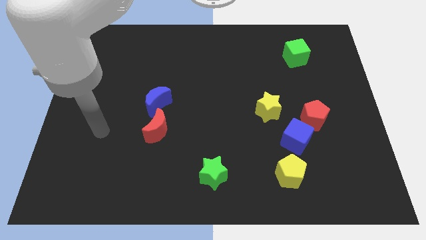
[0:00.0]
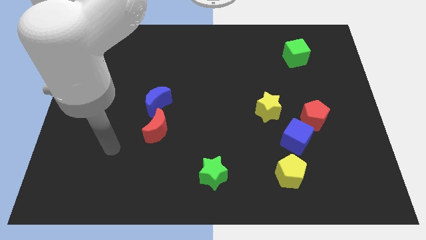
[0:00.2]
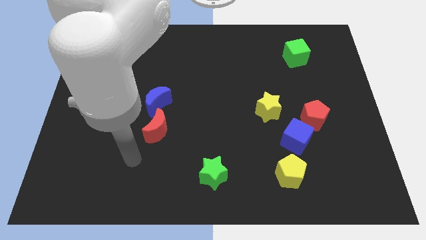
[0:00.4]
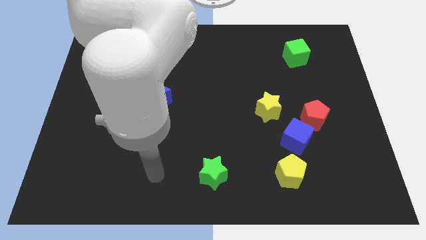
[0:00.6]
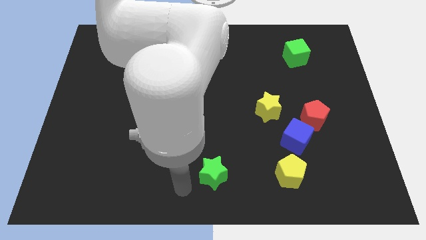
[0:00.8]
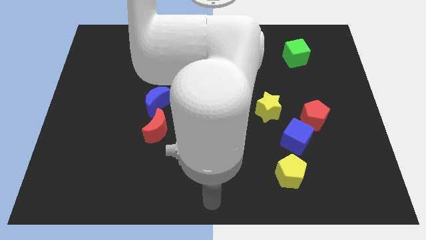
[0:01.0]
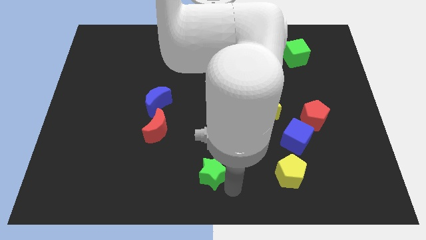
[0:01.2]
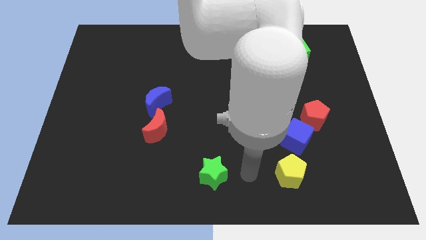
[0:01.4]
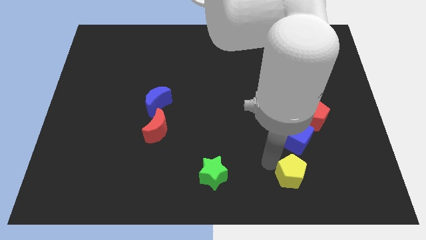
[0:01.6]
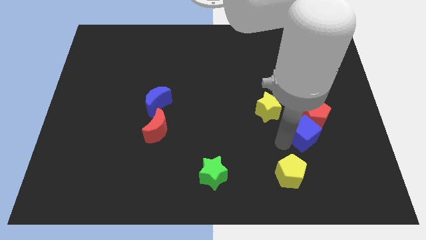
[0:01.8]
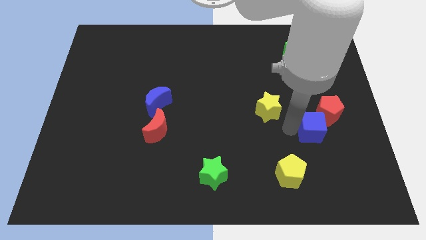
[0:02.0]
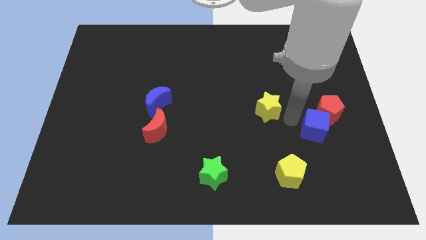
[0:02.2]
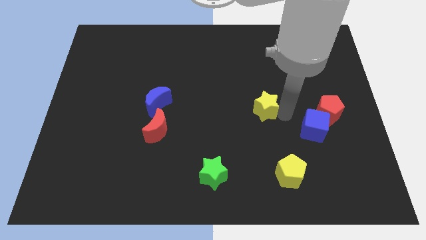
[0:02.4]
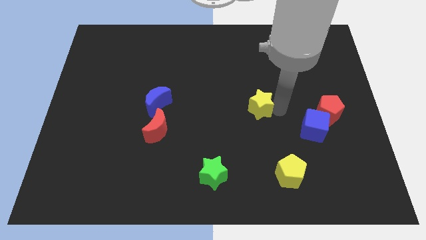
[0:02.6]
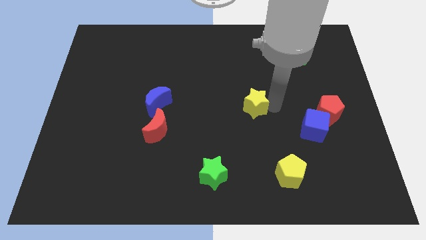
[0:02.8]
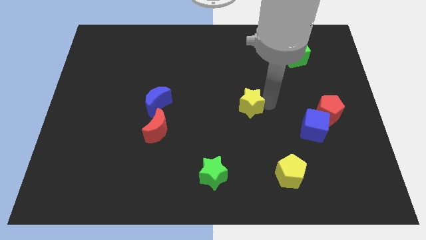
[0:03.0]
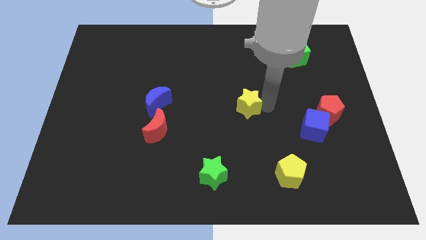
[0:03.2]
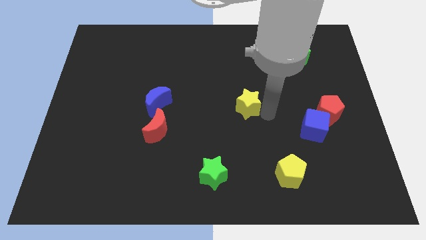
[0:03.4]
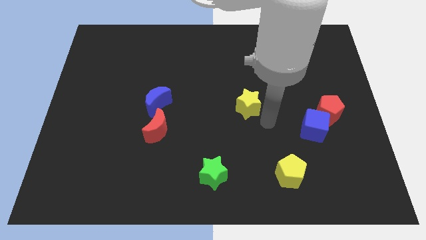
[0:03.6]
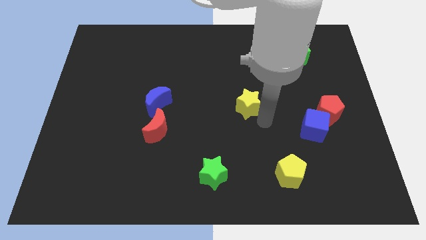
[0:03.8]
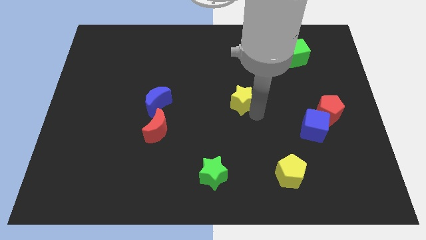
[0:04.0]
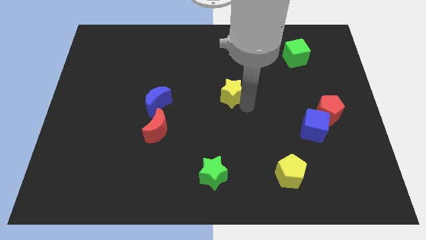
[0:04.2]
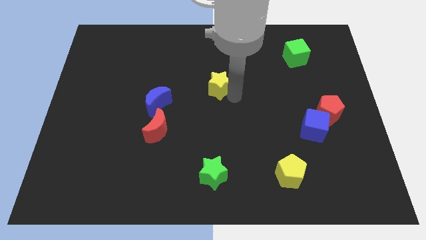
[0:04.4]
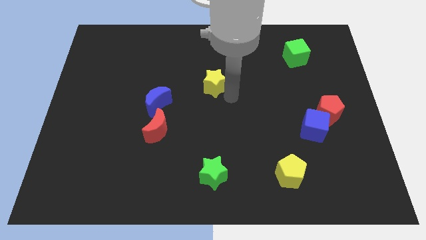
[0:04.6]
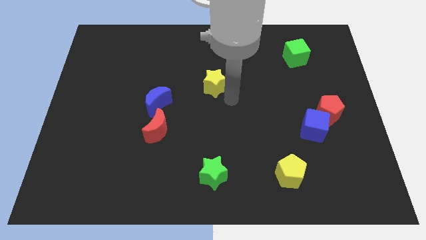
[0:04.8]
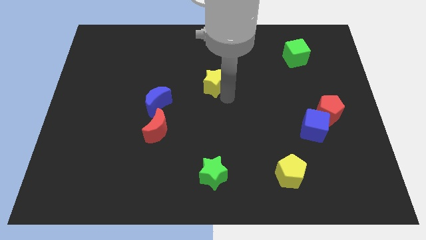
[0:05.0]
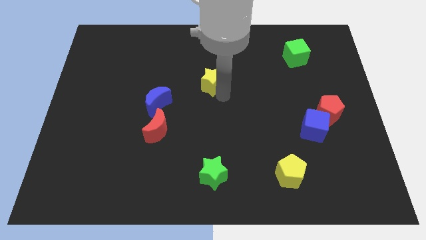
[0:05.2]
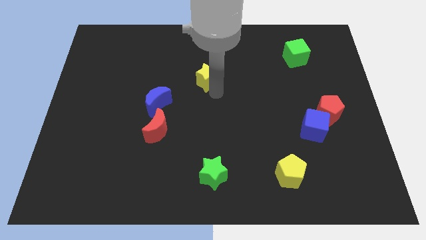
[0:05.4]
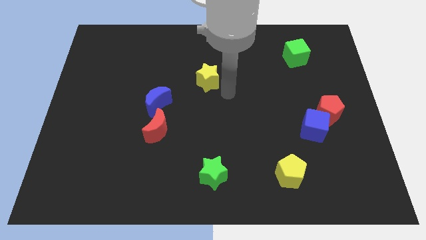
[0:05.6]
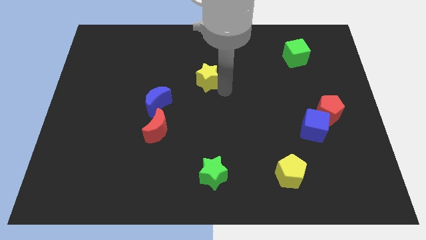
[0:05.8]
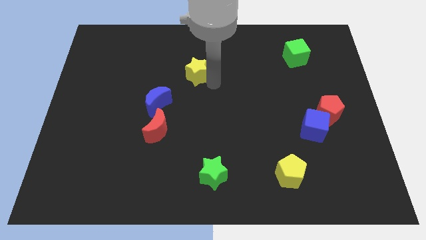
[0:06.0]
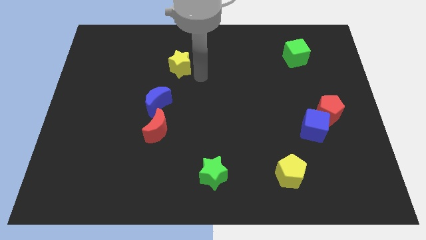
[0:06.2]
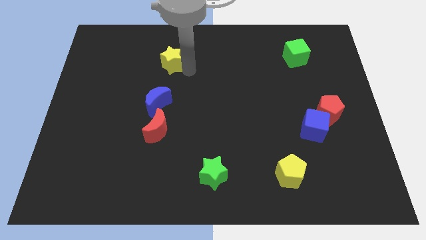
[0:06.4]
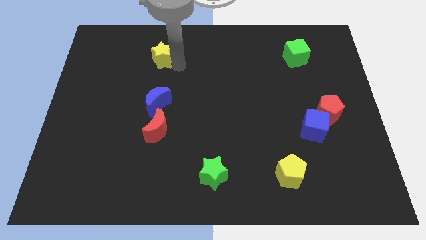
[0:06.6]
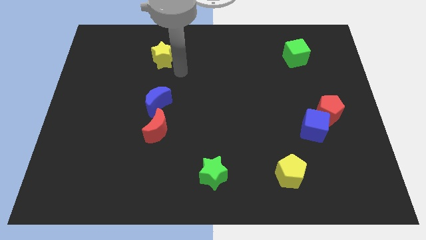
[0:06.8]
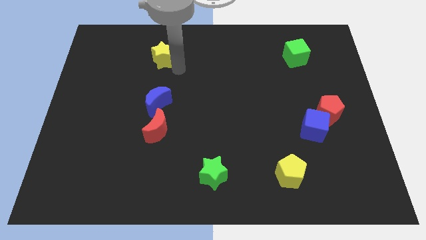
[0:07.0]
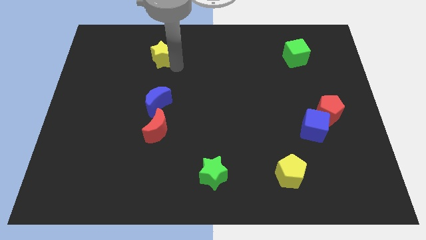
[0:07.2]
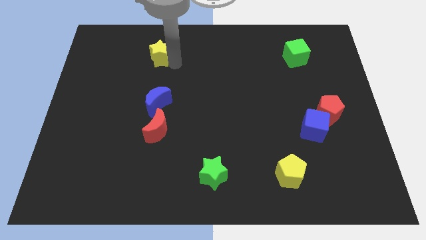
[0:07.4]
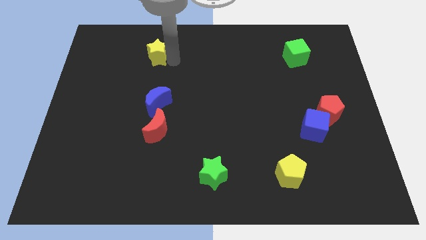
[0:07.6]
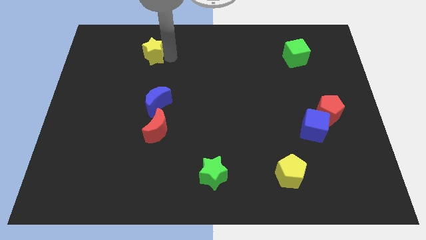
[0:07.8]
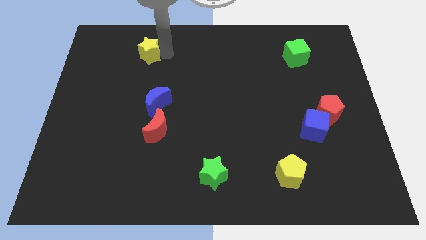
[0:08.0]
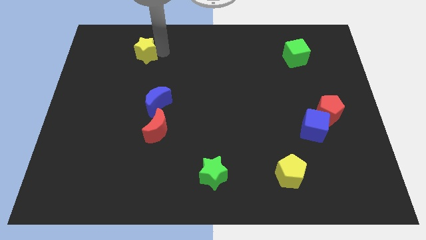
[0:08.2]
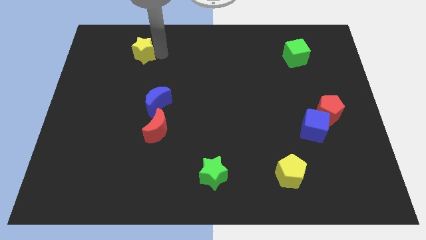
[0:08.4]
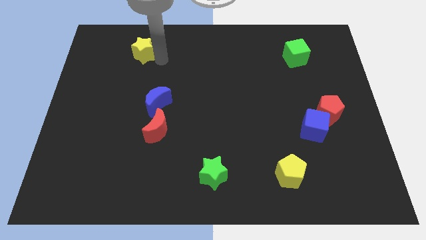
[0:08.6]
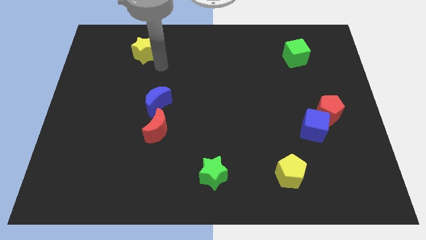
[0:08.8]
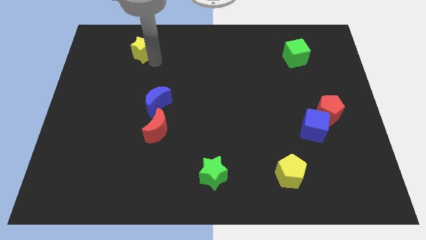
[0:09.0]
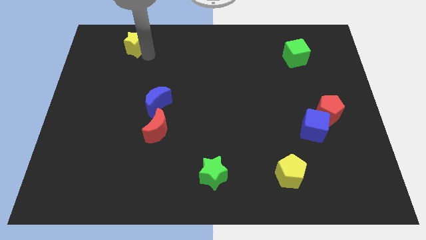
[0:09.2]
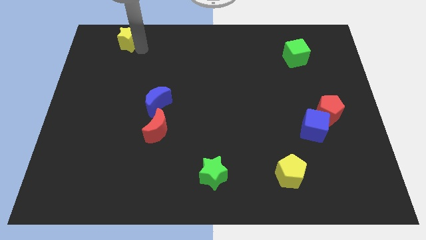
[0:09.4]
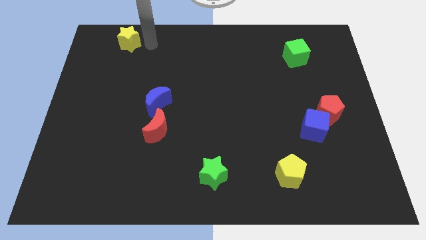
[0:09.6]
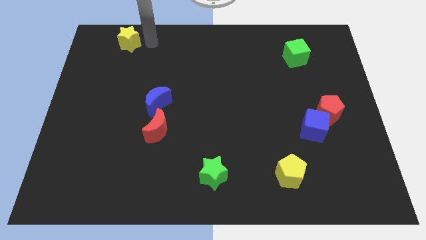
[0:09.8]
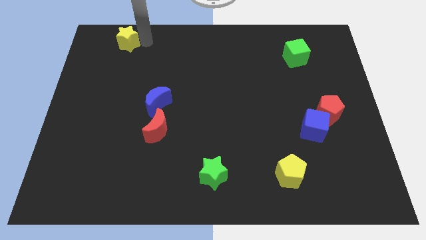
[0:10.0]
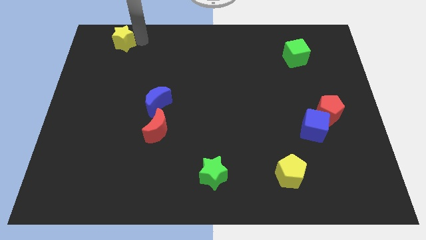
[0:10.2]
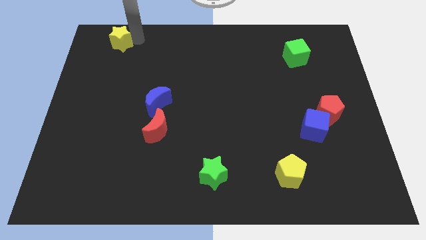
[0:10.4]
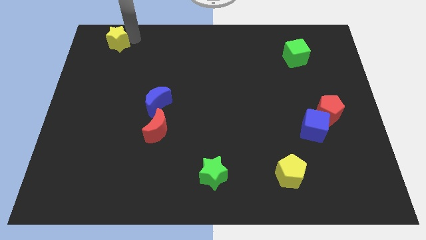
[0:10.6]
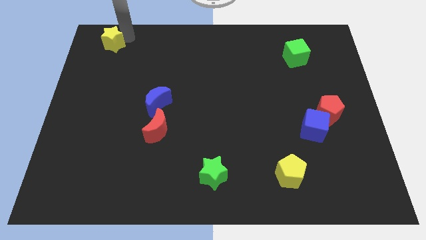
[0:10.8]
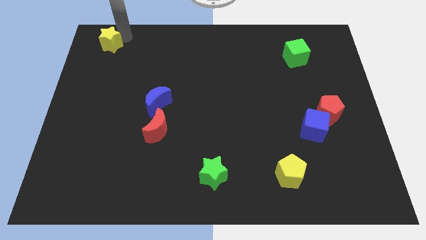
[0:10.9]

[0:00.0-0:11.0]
move the yellow star to the top left corner

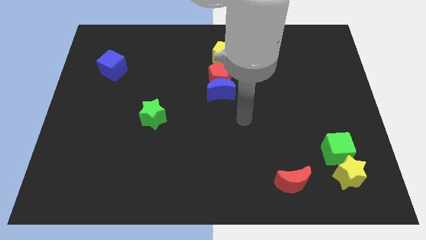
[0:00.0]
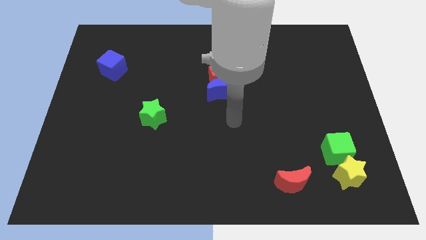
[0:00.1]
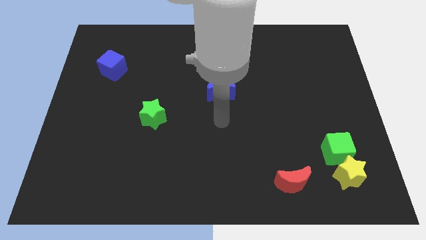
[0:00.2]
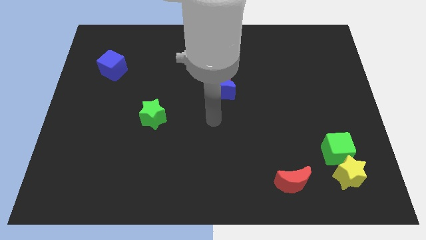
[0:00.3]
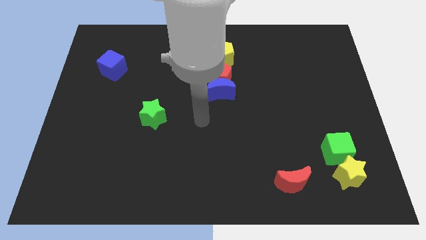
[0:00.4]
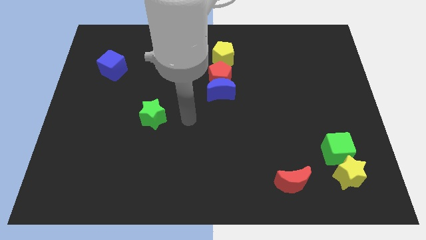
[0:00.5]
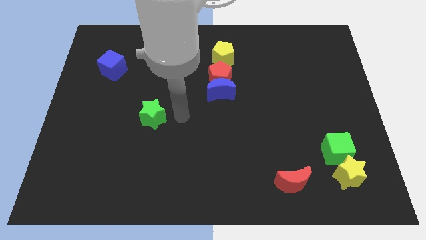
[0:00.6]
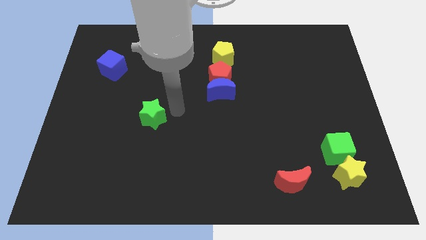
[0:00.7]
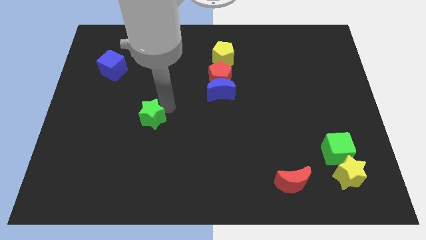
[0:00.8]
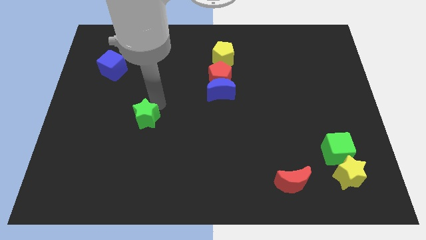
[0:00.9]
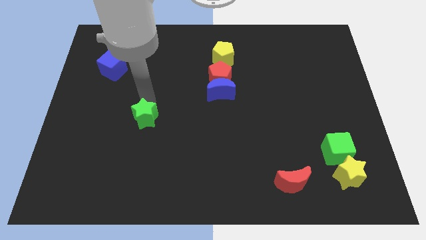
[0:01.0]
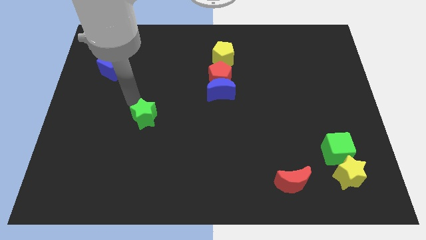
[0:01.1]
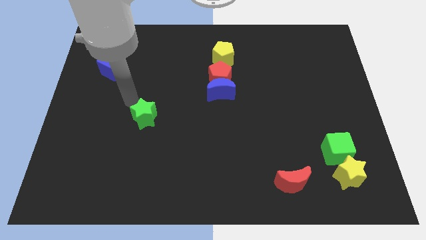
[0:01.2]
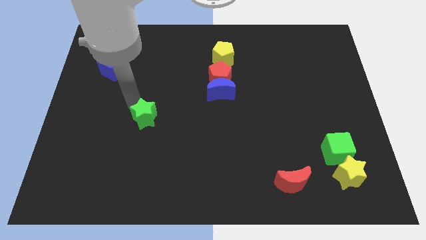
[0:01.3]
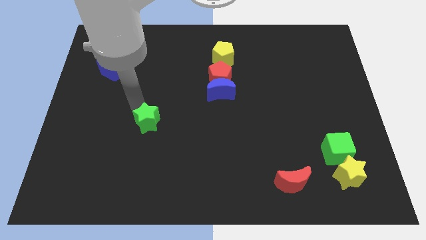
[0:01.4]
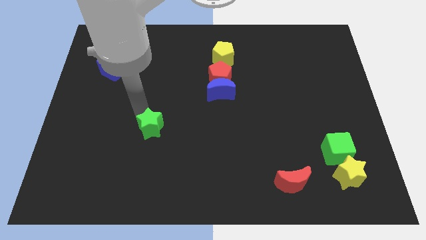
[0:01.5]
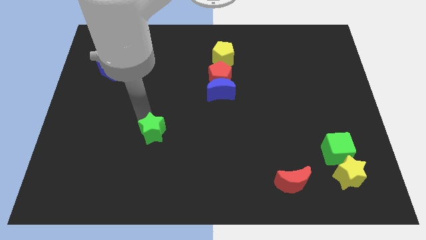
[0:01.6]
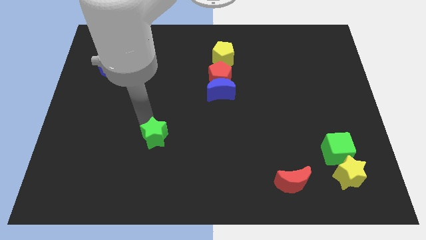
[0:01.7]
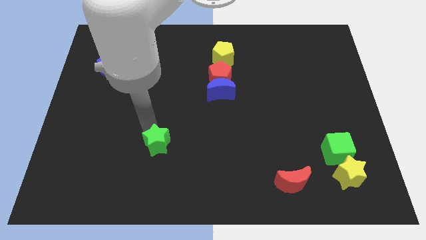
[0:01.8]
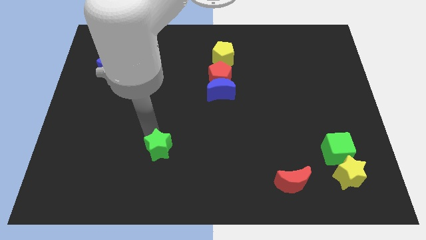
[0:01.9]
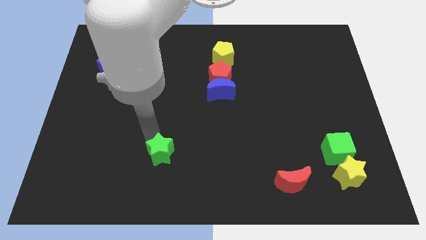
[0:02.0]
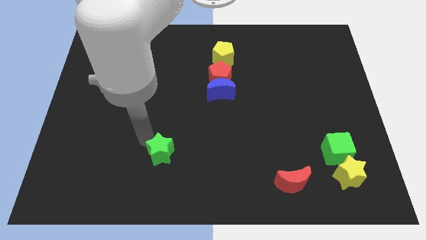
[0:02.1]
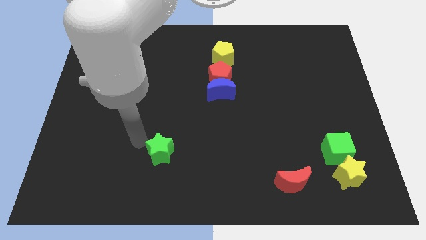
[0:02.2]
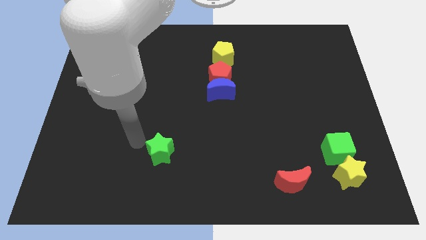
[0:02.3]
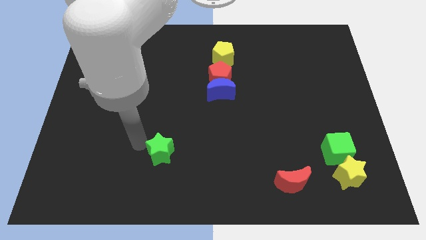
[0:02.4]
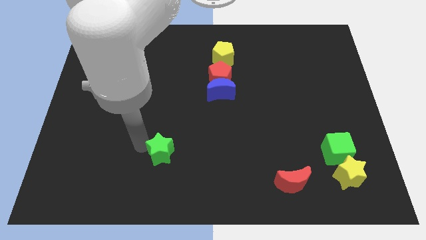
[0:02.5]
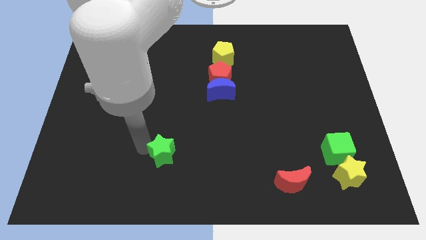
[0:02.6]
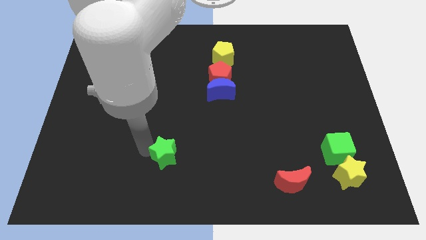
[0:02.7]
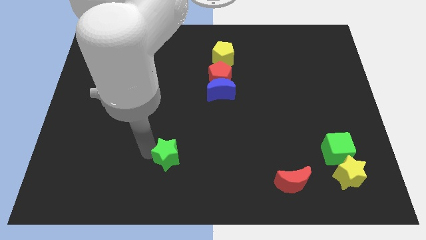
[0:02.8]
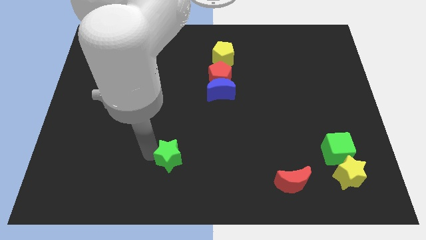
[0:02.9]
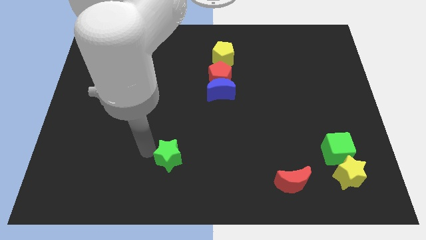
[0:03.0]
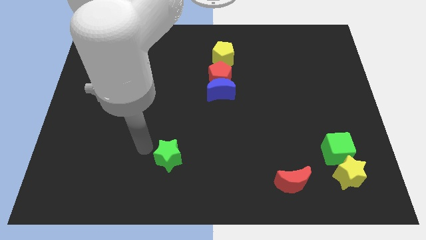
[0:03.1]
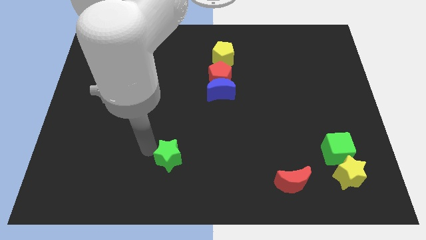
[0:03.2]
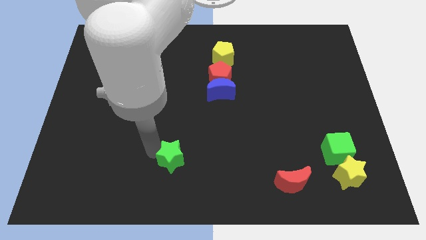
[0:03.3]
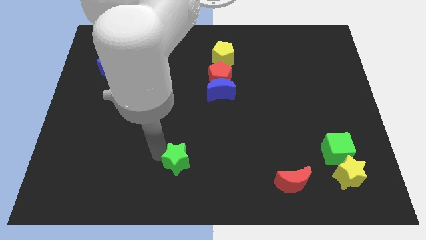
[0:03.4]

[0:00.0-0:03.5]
slide the green star to the bottom
